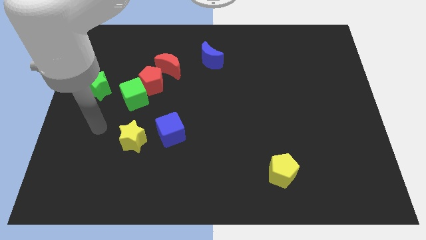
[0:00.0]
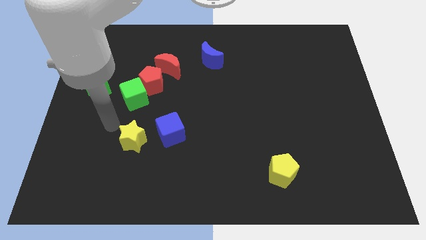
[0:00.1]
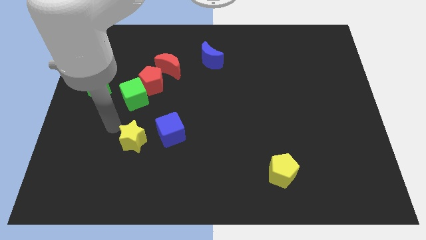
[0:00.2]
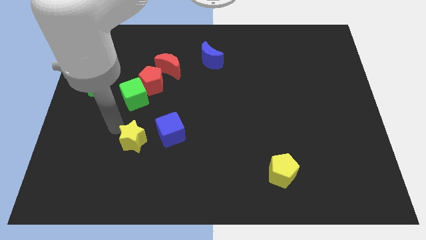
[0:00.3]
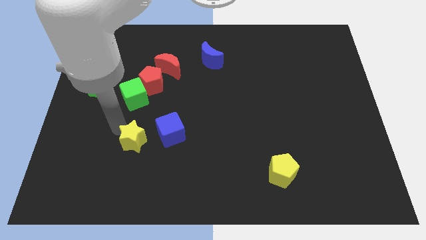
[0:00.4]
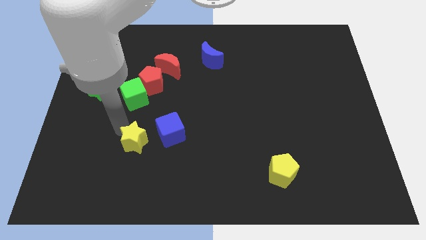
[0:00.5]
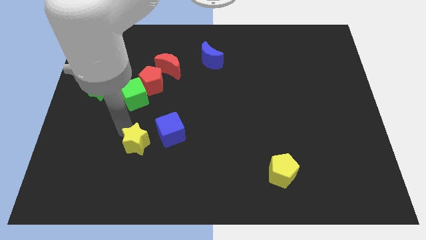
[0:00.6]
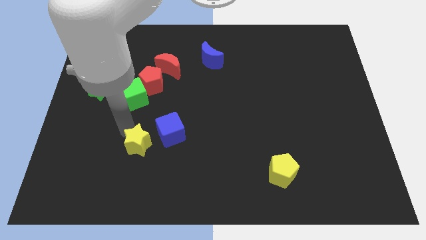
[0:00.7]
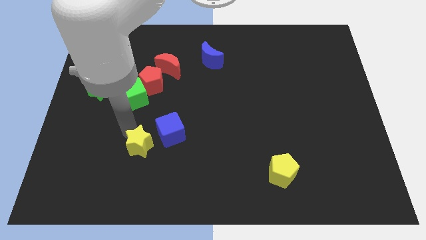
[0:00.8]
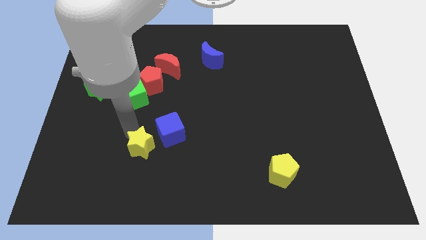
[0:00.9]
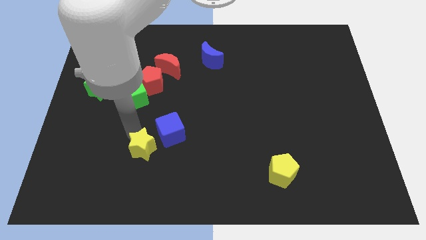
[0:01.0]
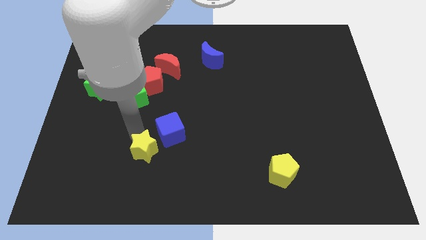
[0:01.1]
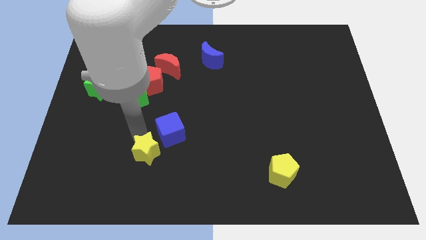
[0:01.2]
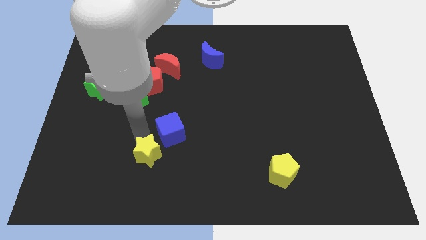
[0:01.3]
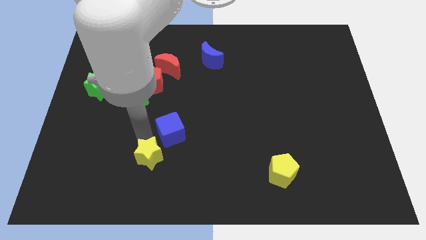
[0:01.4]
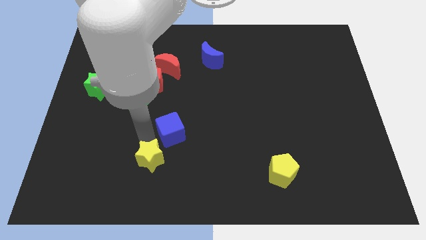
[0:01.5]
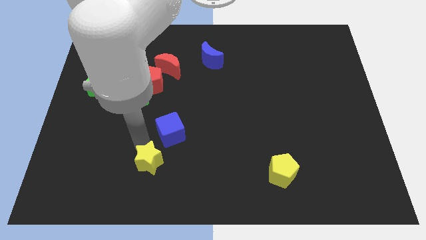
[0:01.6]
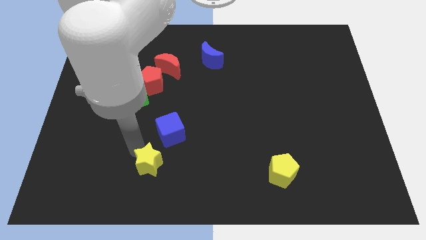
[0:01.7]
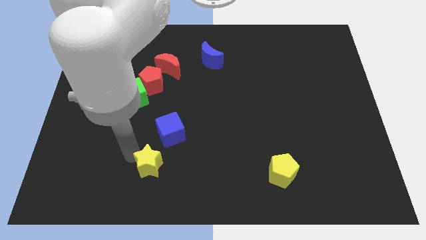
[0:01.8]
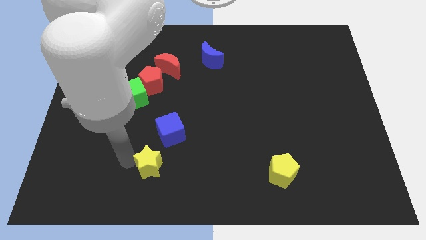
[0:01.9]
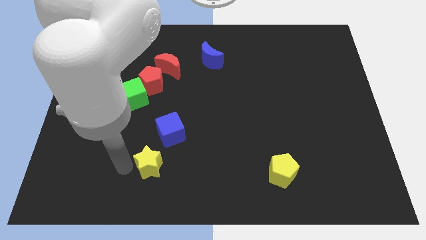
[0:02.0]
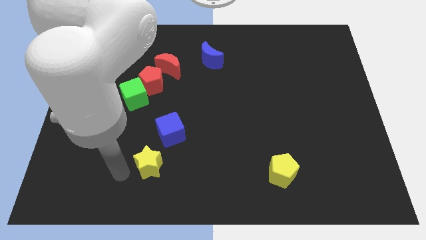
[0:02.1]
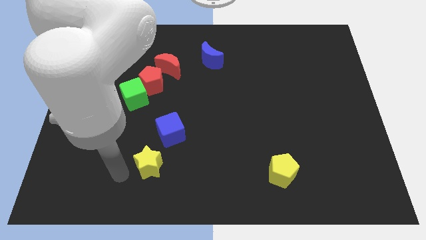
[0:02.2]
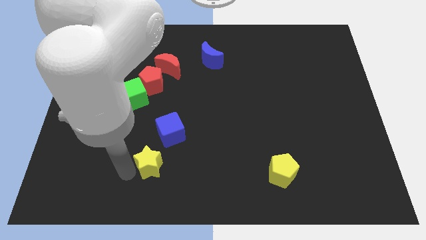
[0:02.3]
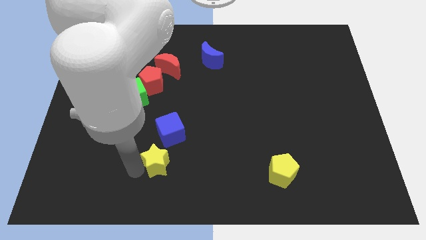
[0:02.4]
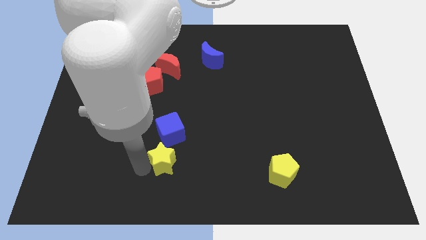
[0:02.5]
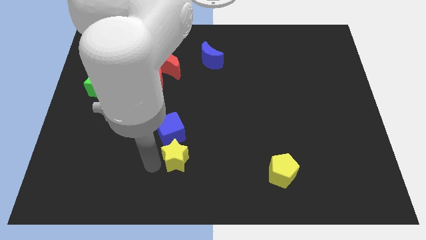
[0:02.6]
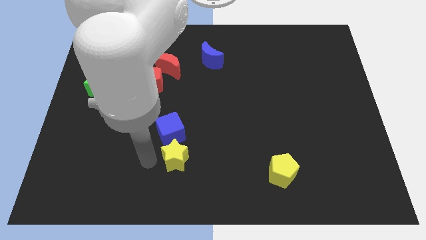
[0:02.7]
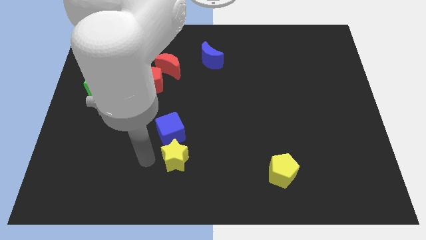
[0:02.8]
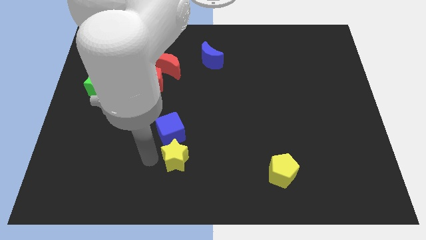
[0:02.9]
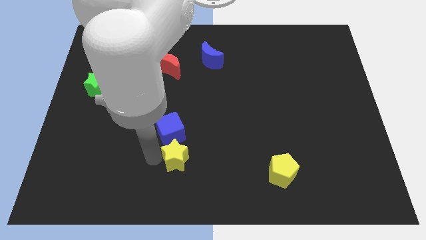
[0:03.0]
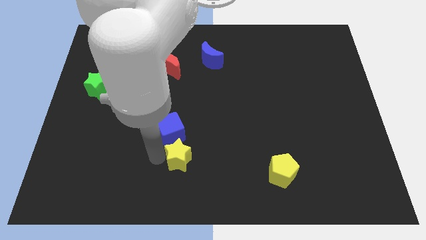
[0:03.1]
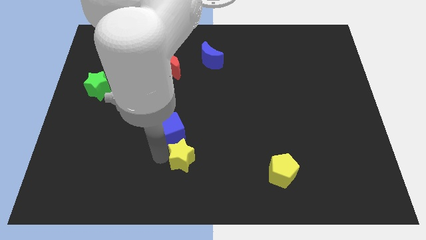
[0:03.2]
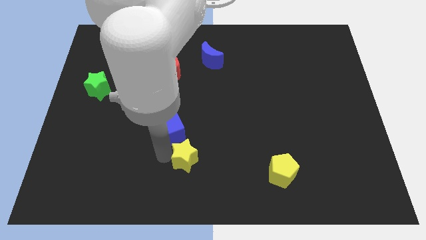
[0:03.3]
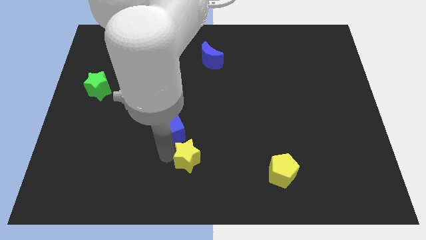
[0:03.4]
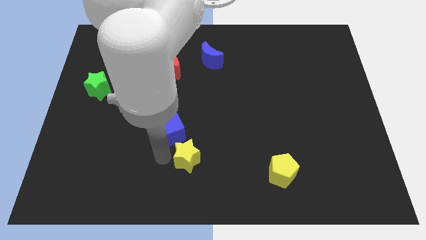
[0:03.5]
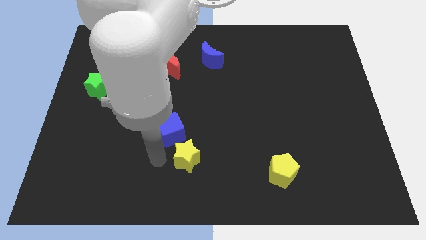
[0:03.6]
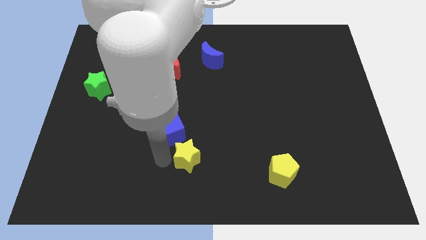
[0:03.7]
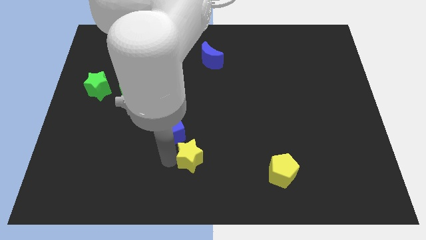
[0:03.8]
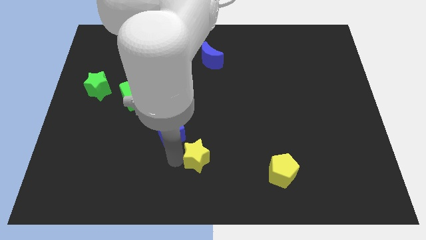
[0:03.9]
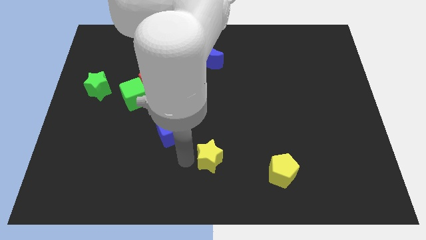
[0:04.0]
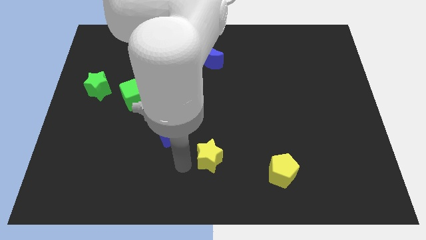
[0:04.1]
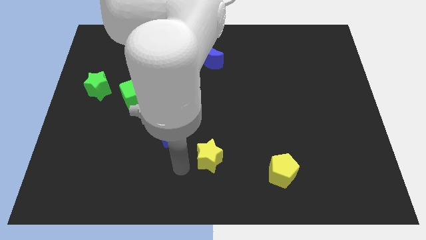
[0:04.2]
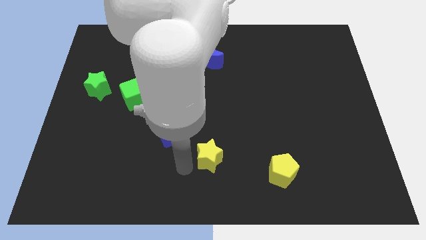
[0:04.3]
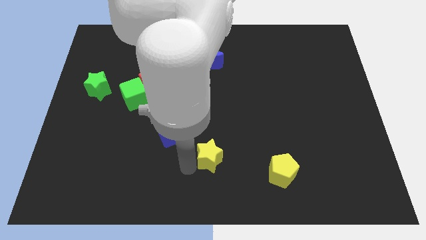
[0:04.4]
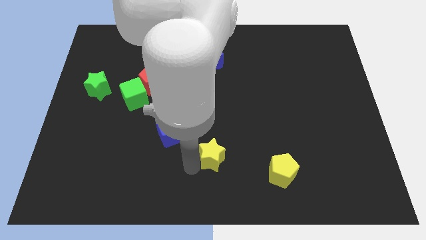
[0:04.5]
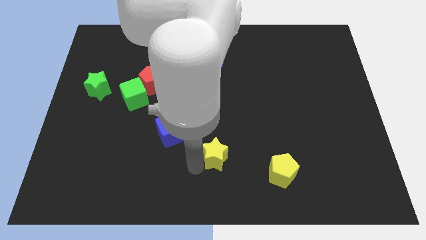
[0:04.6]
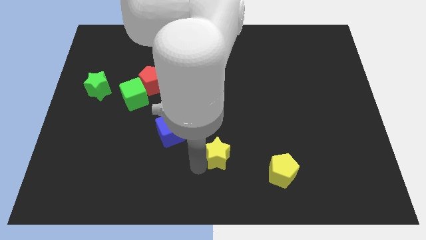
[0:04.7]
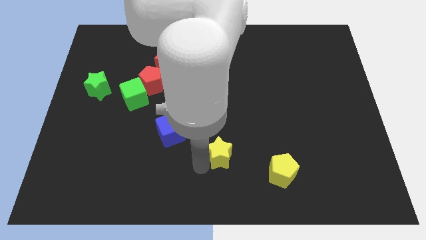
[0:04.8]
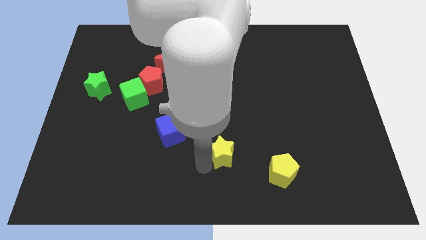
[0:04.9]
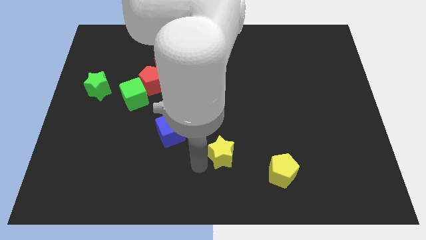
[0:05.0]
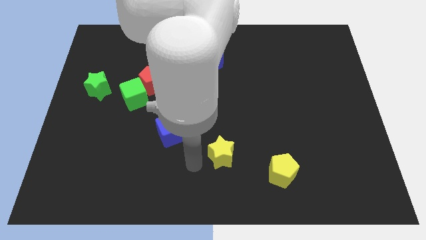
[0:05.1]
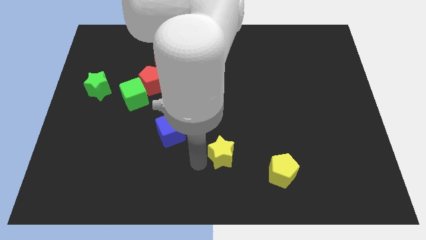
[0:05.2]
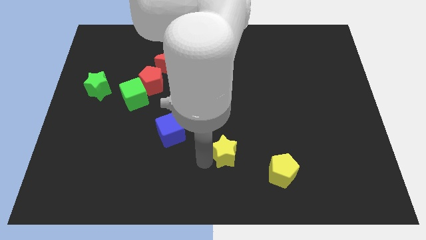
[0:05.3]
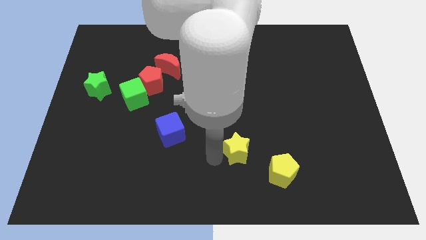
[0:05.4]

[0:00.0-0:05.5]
push the yellow star right

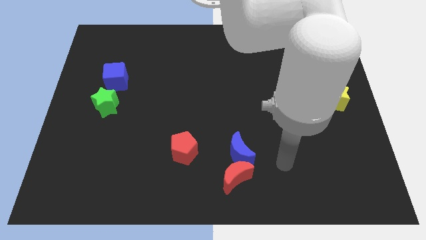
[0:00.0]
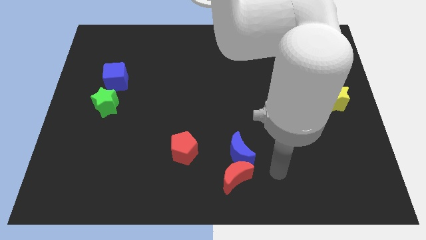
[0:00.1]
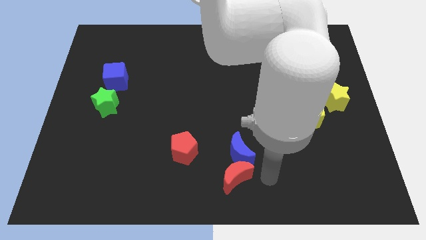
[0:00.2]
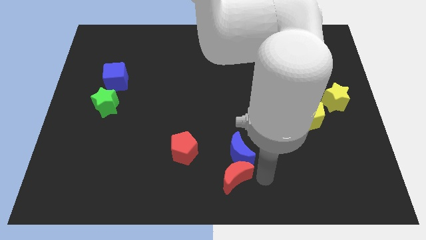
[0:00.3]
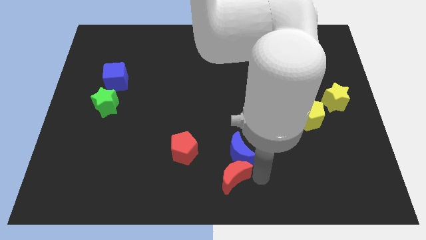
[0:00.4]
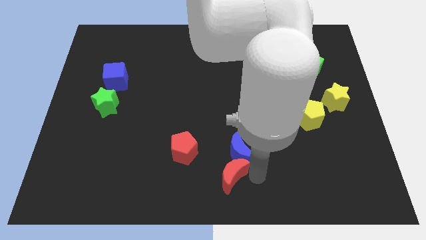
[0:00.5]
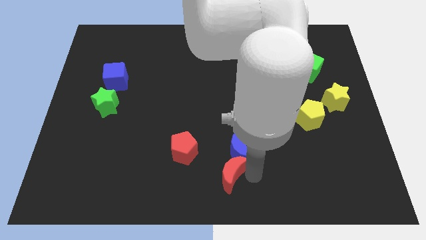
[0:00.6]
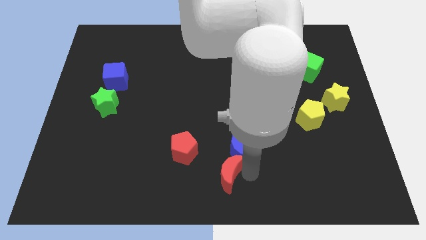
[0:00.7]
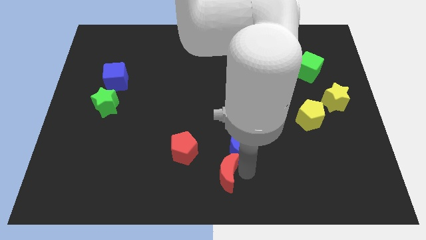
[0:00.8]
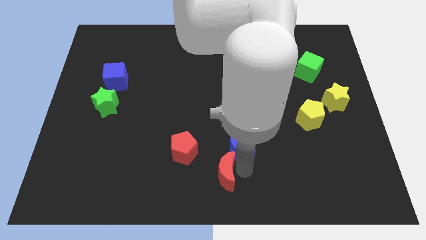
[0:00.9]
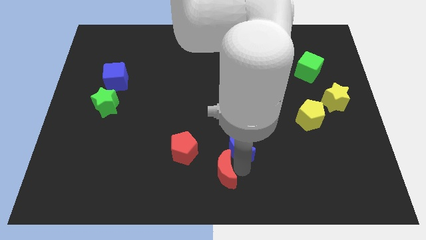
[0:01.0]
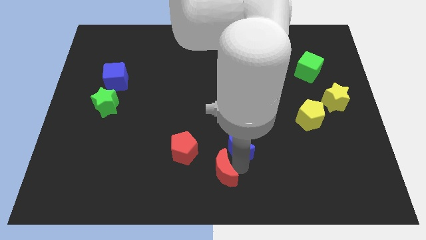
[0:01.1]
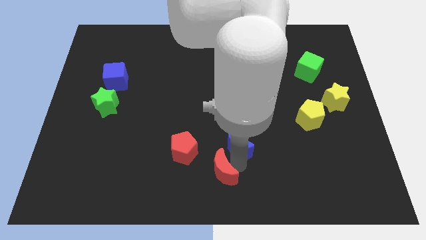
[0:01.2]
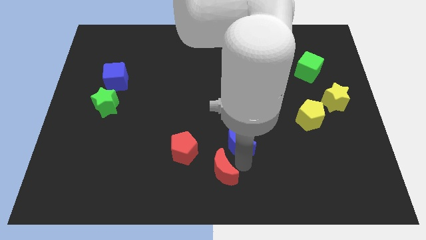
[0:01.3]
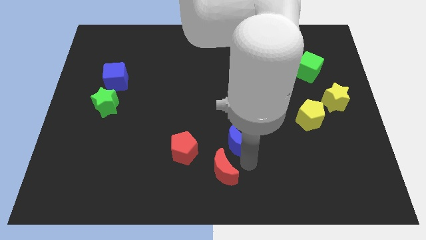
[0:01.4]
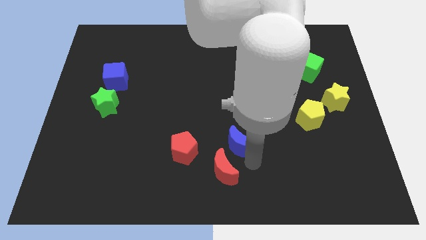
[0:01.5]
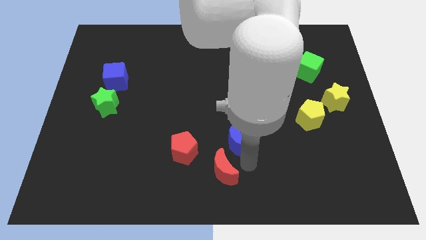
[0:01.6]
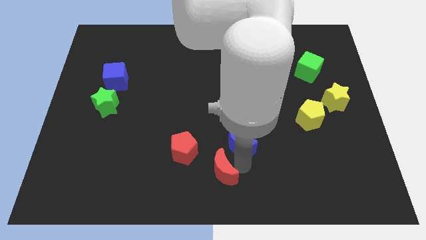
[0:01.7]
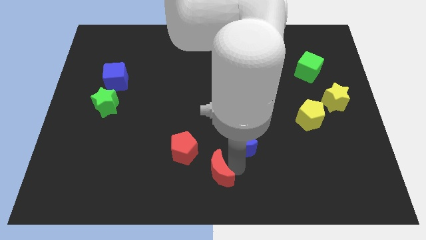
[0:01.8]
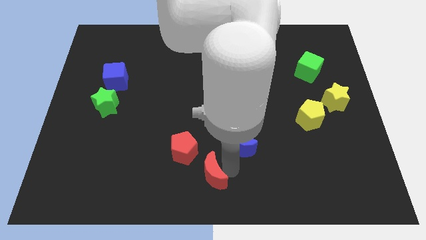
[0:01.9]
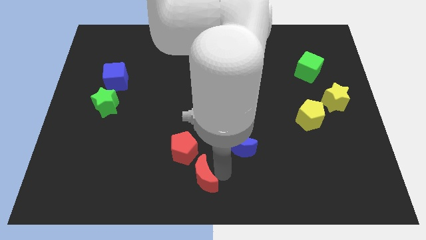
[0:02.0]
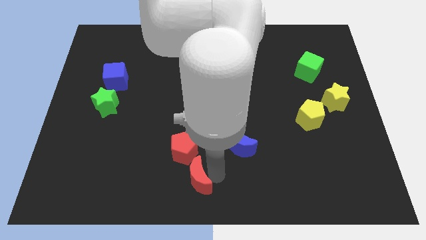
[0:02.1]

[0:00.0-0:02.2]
move the red moon to the left slightly
